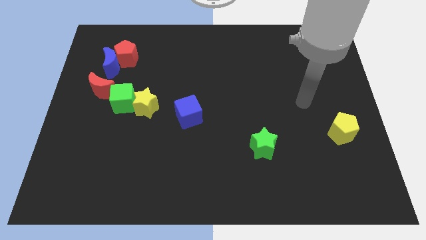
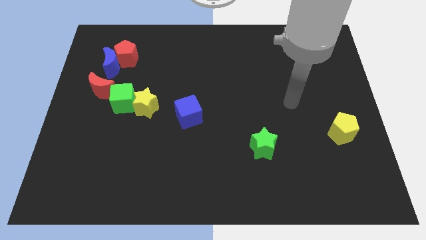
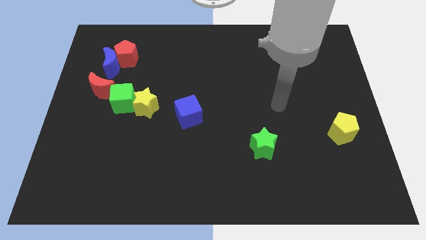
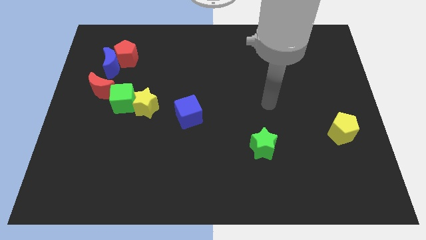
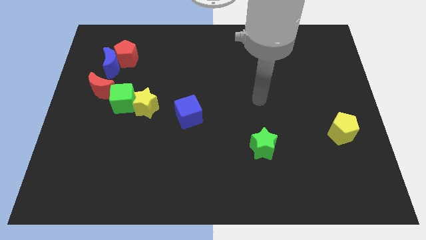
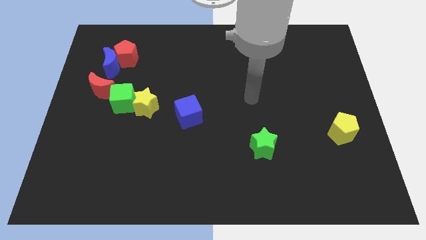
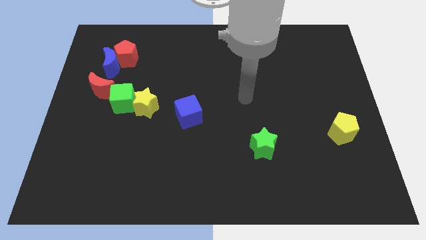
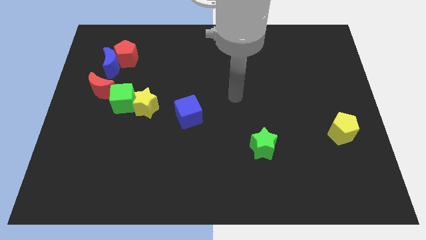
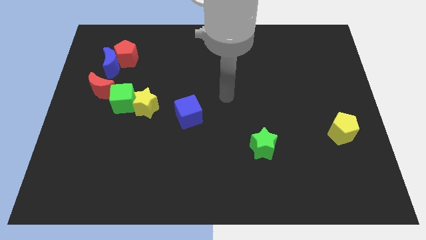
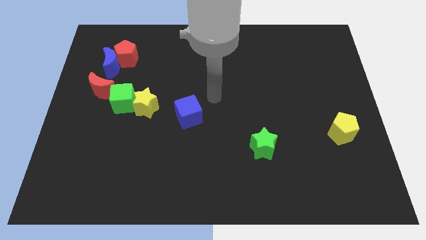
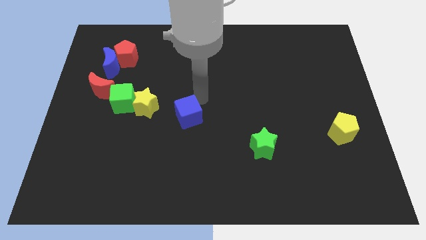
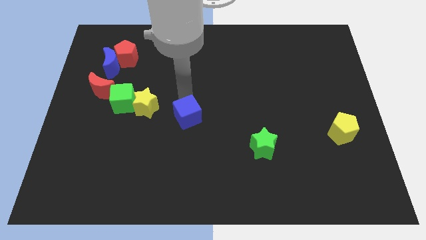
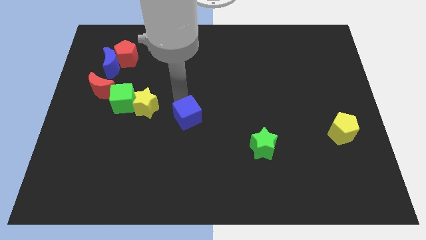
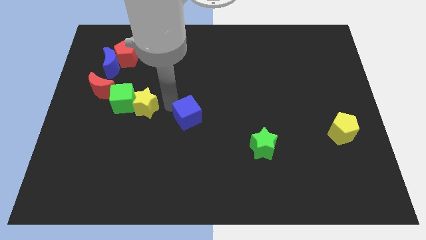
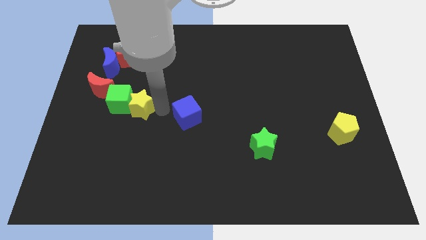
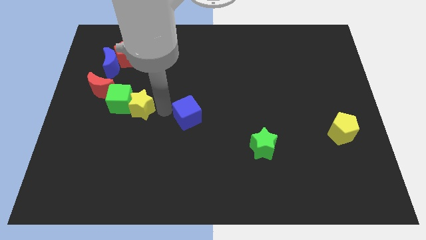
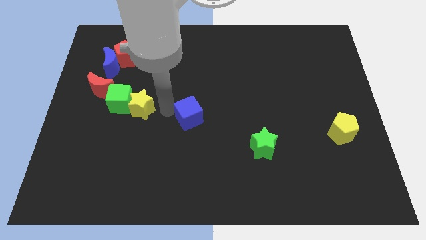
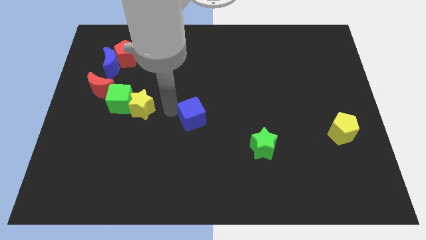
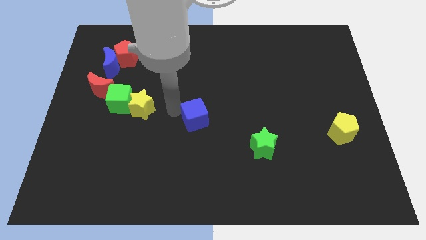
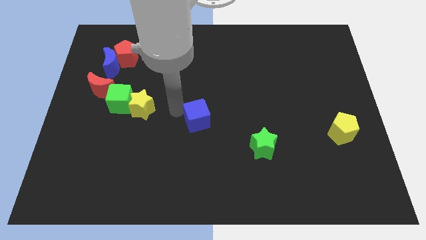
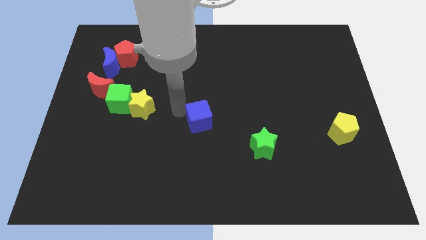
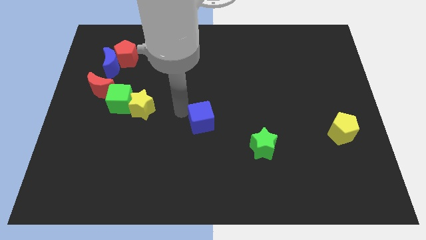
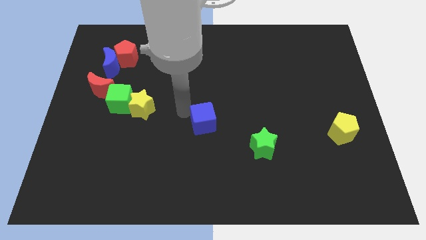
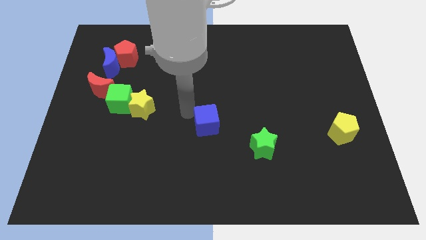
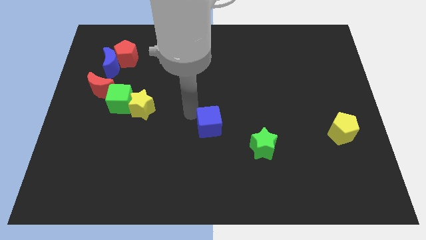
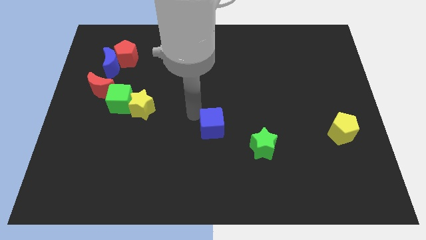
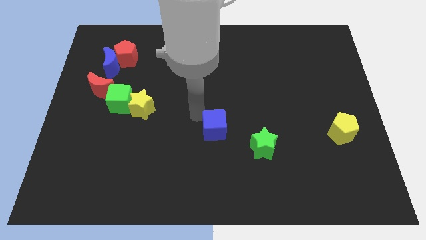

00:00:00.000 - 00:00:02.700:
slide the blue cube to the top left side of the green star

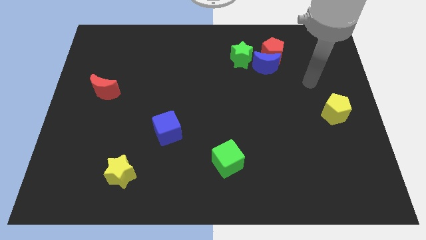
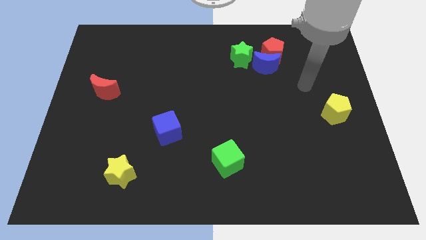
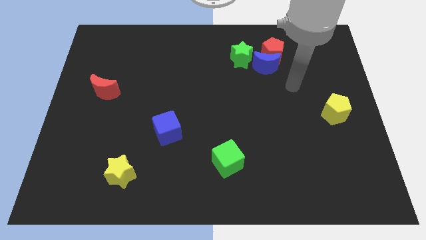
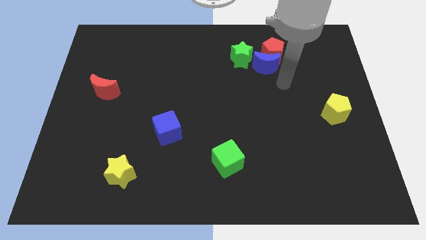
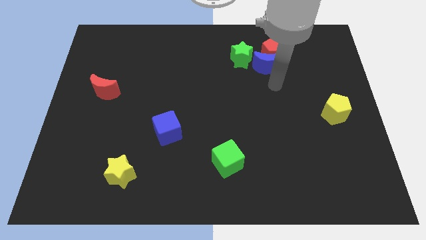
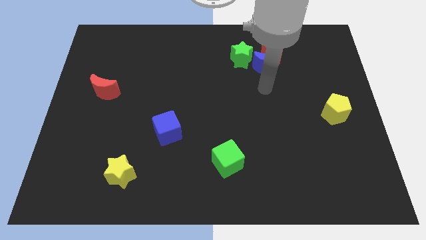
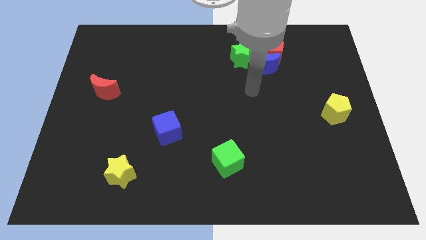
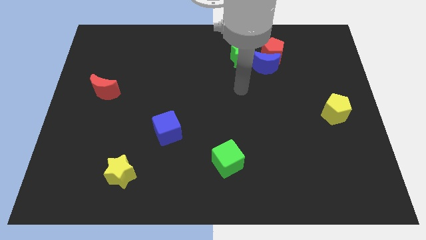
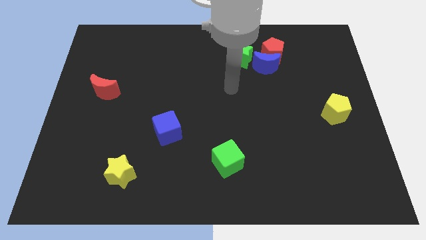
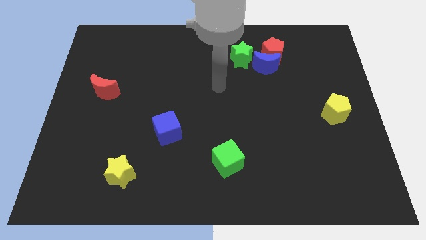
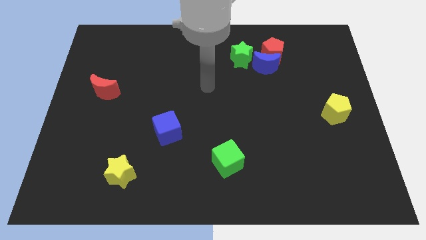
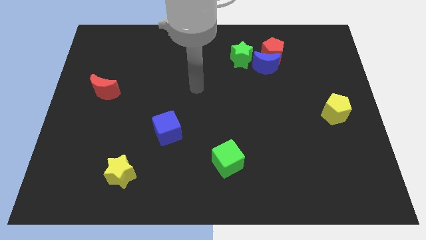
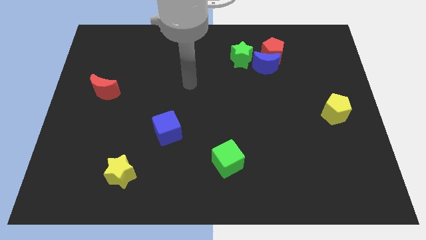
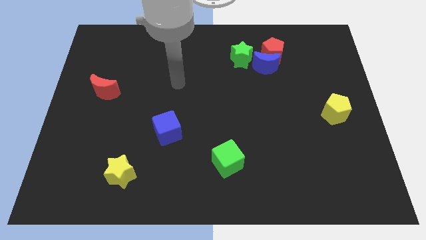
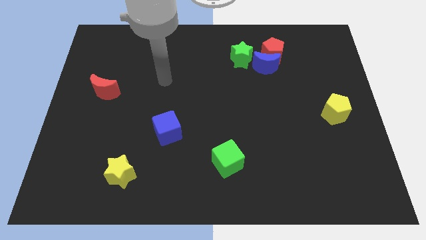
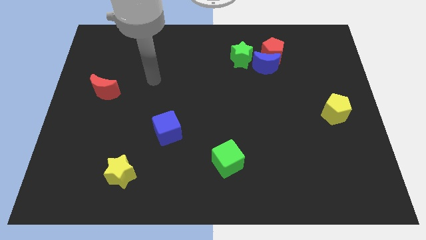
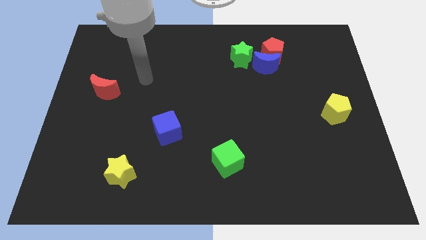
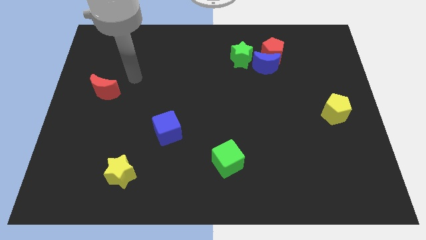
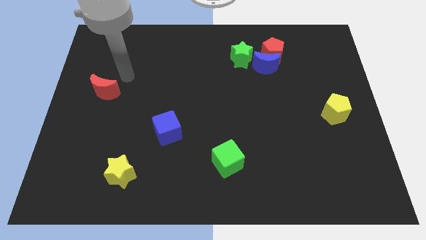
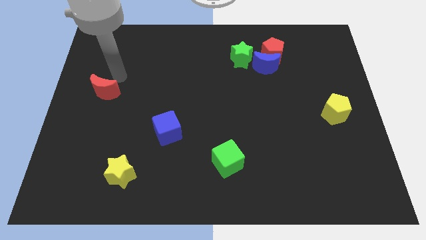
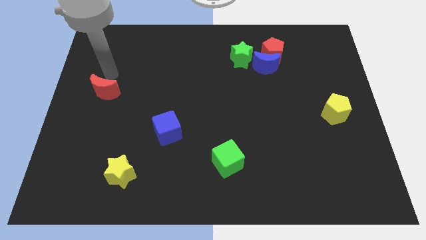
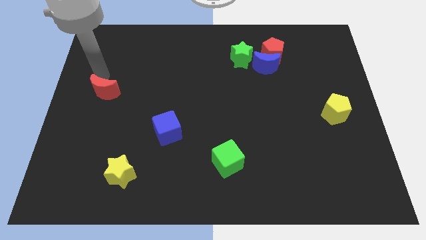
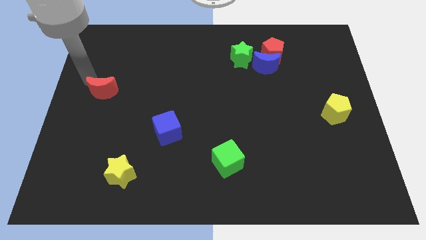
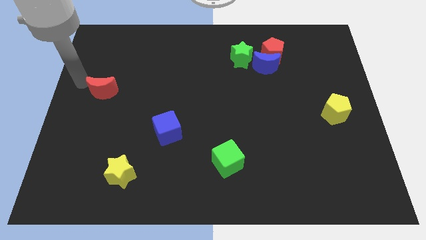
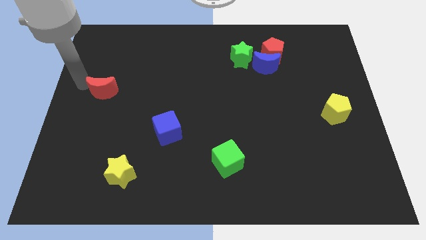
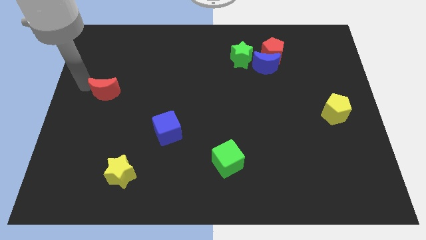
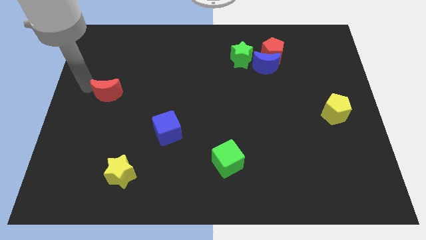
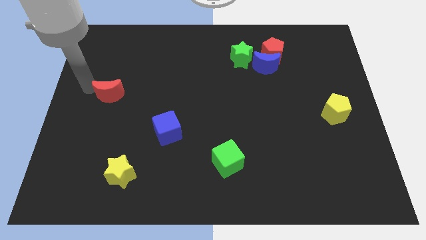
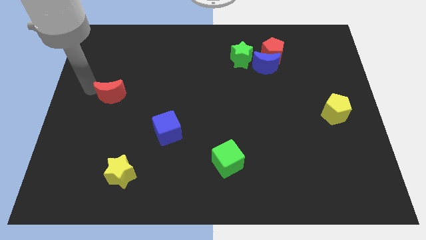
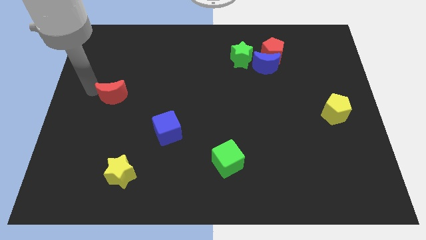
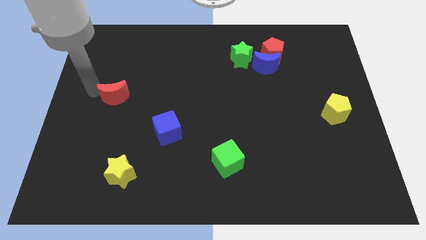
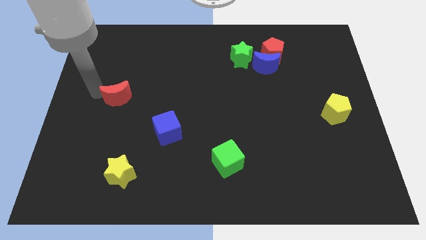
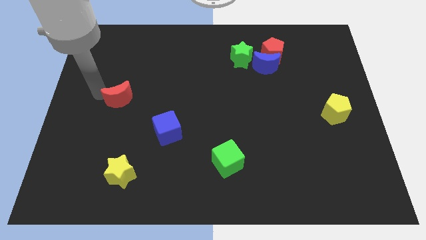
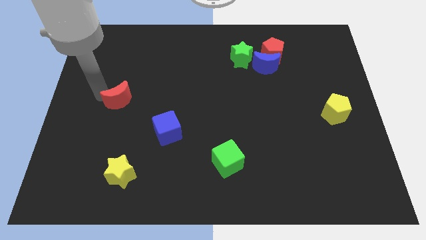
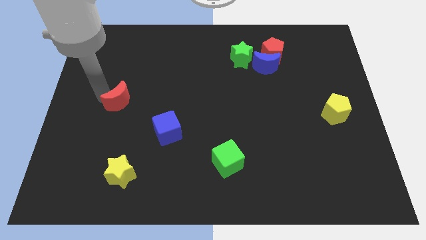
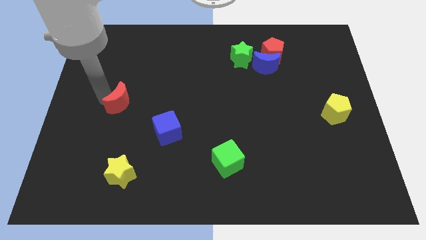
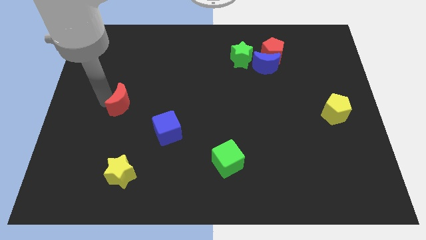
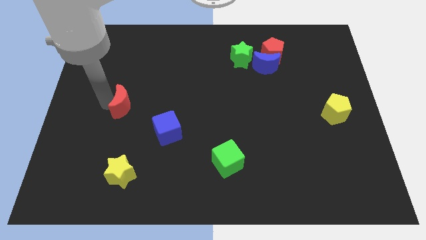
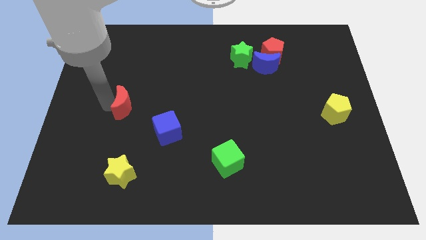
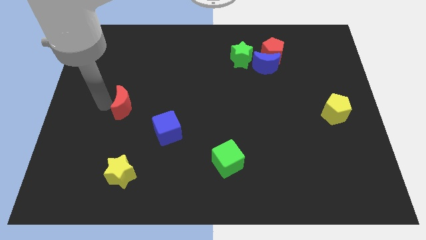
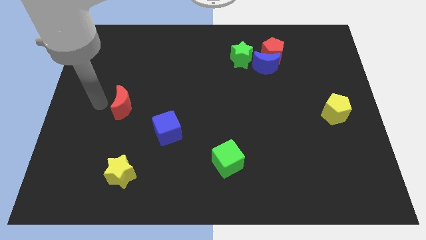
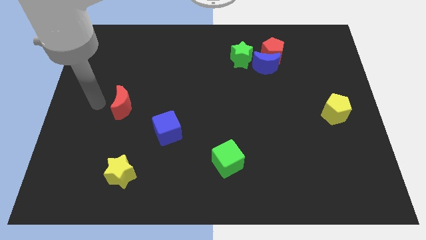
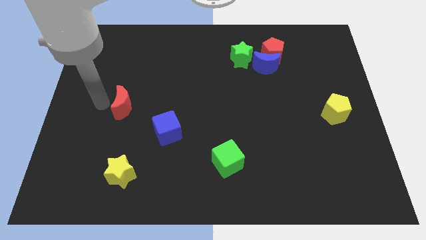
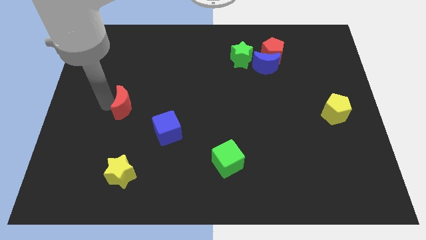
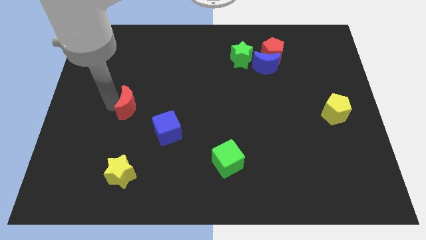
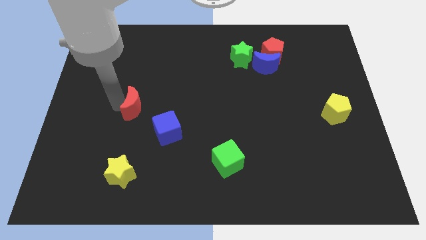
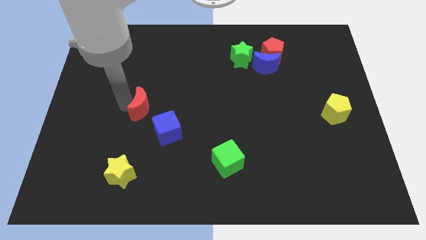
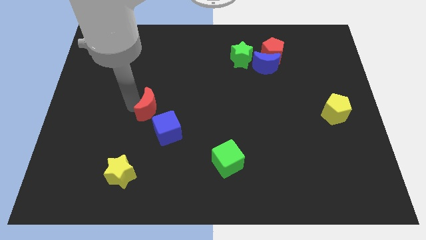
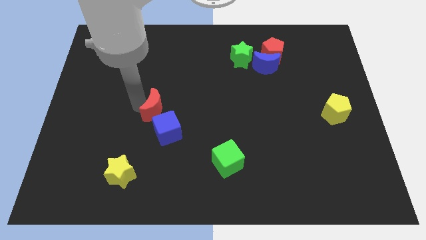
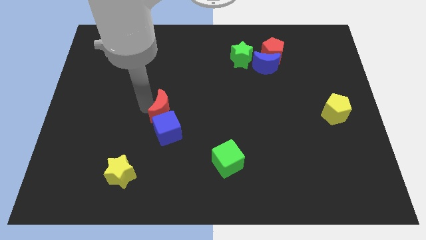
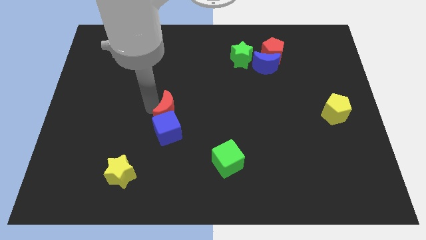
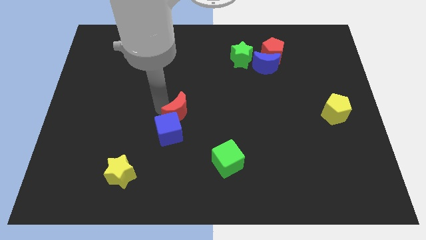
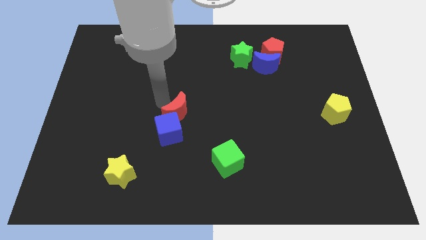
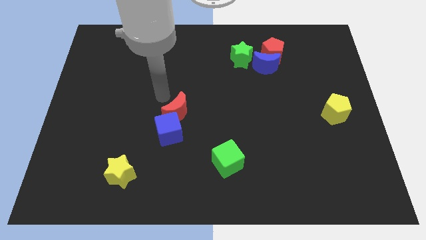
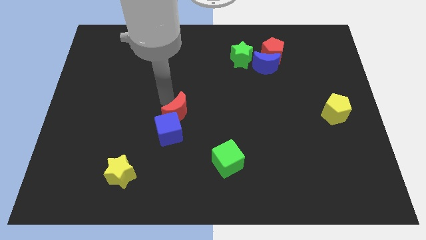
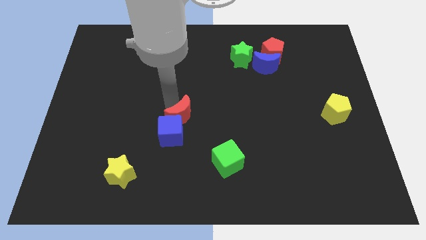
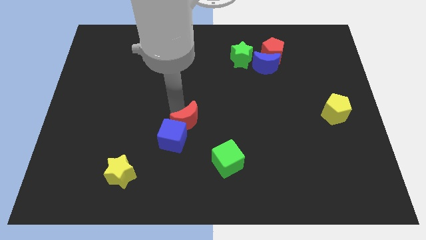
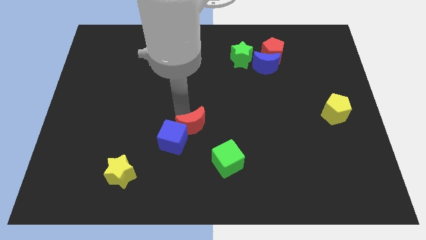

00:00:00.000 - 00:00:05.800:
move the red moon to the top left side of the green cube

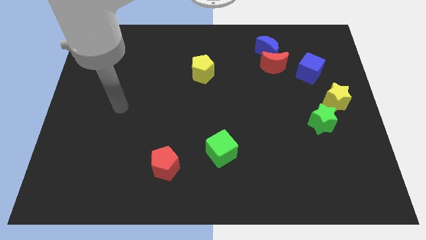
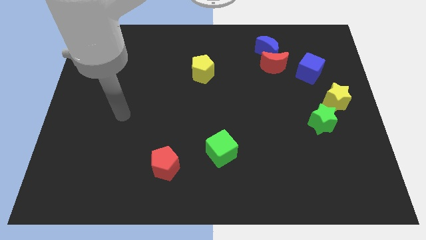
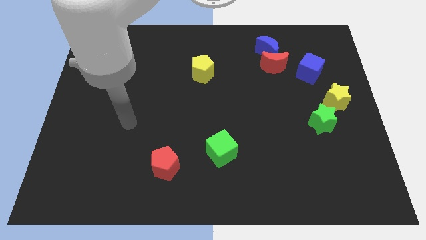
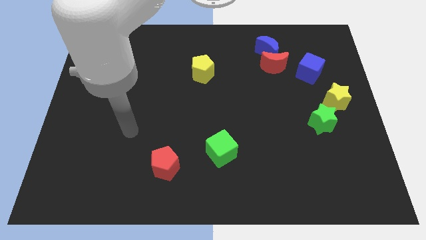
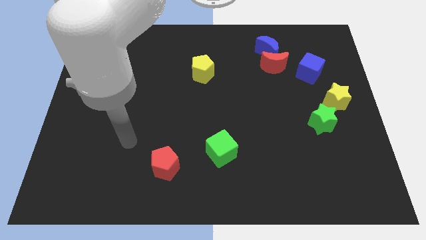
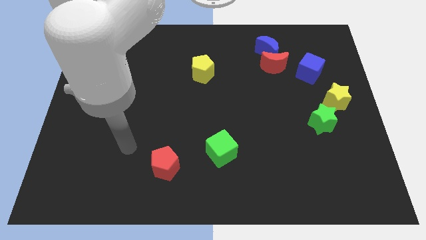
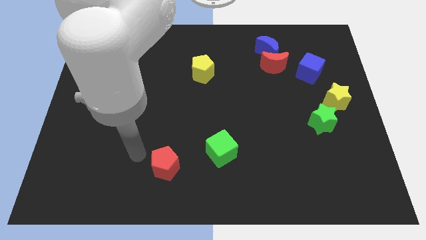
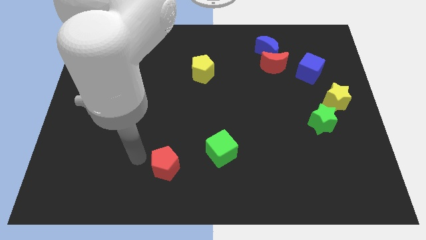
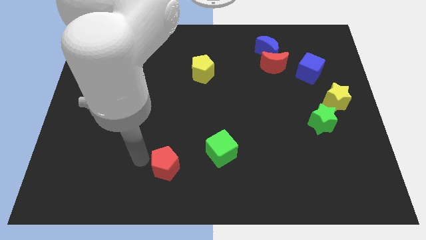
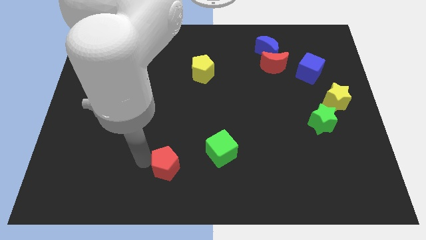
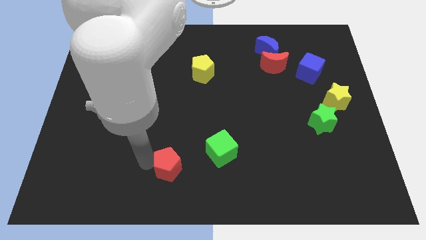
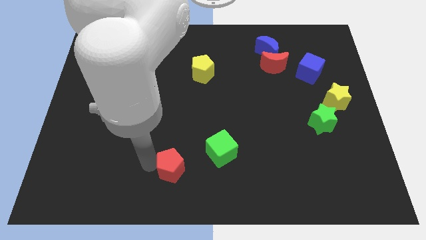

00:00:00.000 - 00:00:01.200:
put the red pentagon diagonally down and to the left of the green cube
